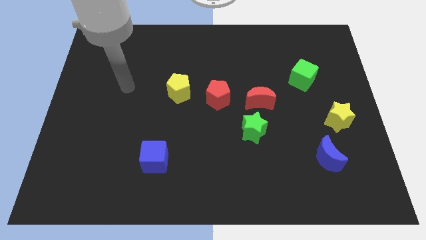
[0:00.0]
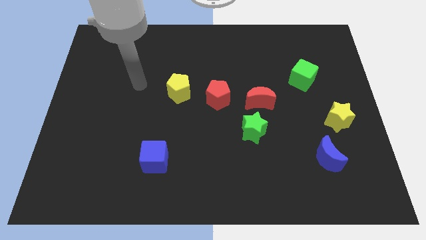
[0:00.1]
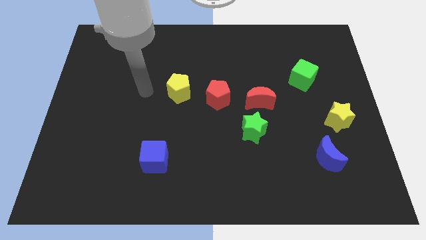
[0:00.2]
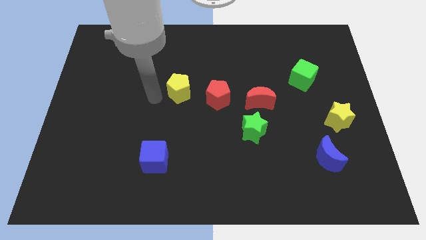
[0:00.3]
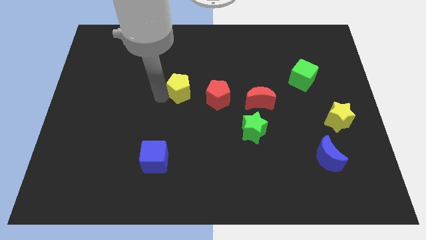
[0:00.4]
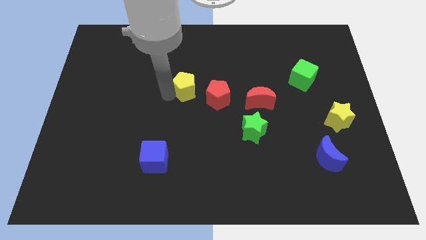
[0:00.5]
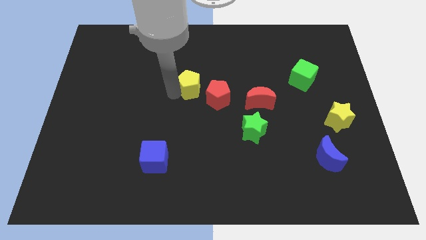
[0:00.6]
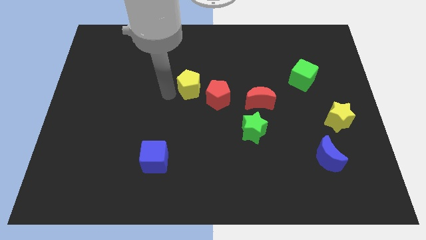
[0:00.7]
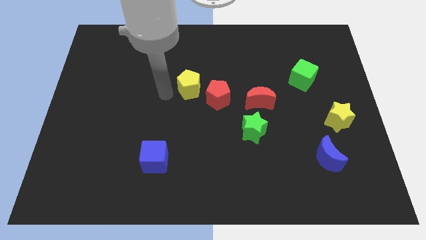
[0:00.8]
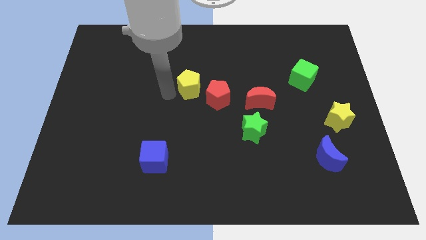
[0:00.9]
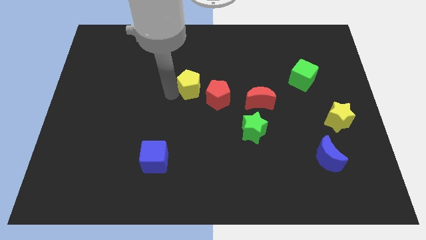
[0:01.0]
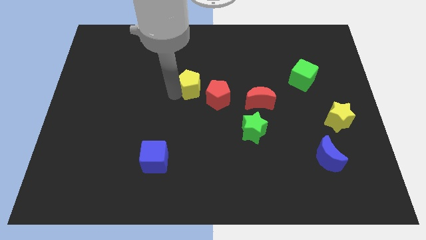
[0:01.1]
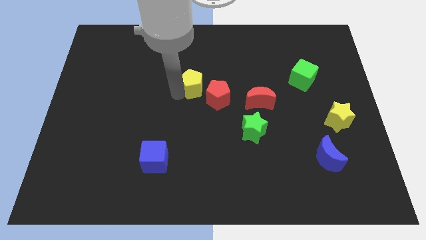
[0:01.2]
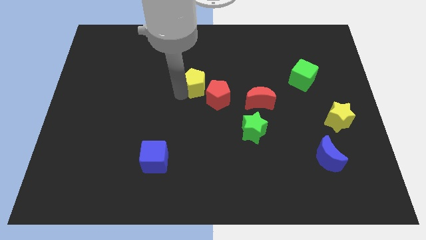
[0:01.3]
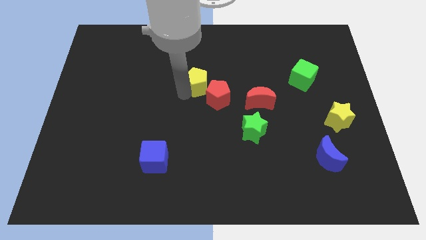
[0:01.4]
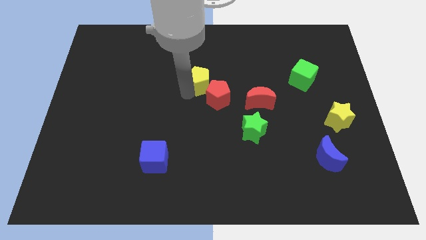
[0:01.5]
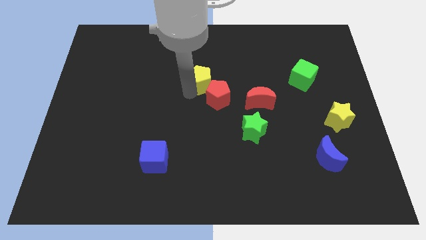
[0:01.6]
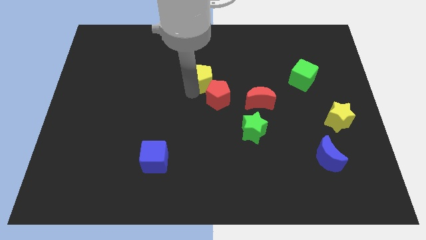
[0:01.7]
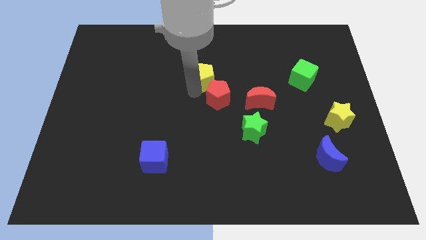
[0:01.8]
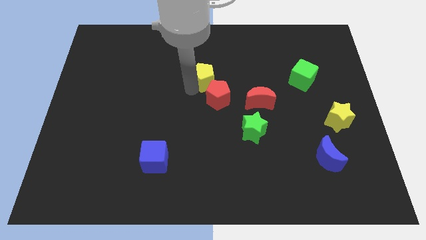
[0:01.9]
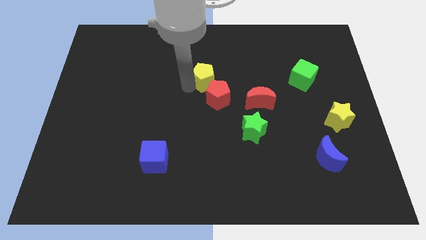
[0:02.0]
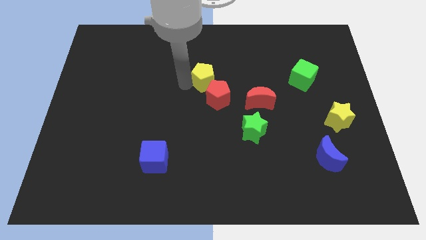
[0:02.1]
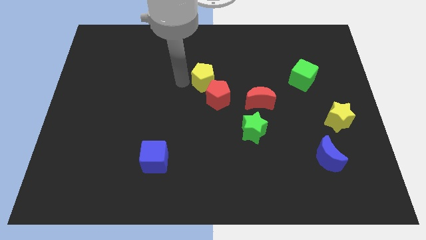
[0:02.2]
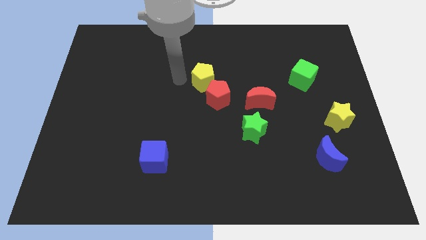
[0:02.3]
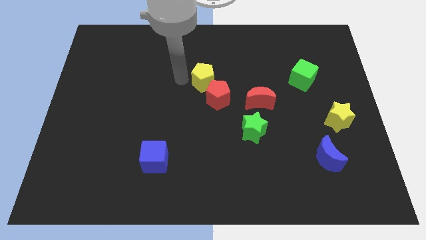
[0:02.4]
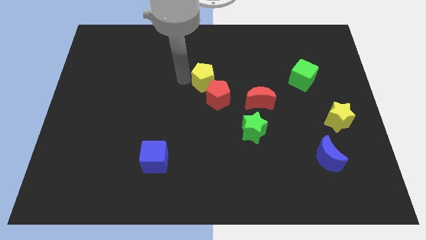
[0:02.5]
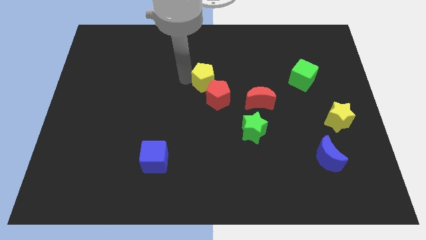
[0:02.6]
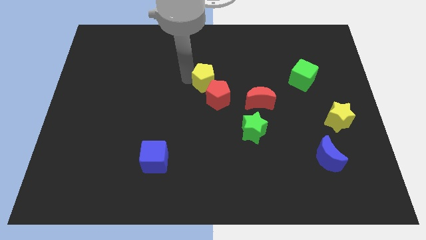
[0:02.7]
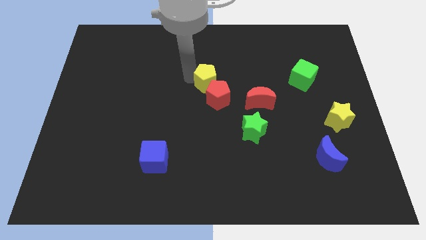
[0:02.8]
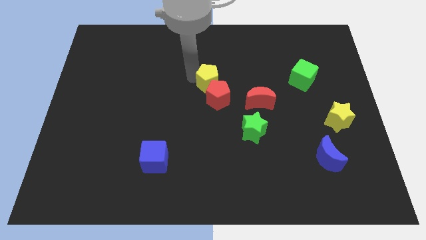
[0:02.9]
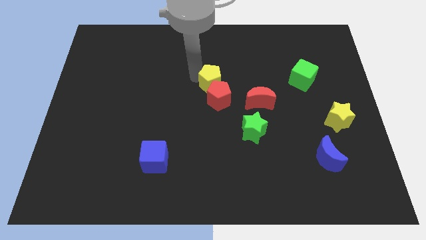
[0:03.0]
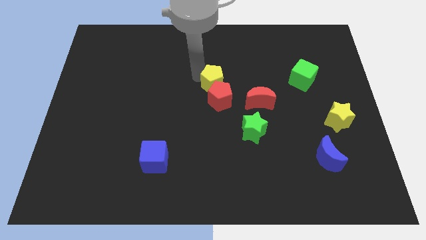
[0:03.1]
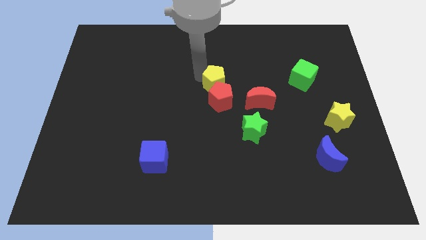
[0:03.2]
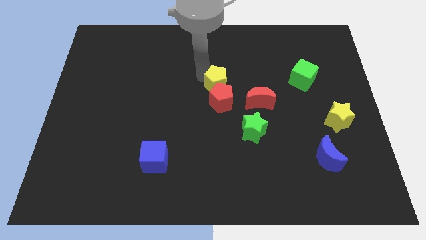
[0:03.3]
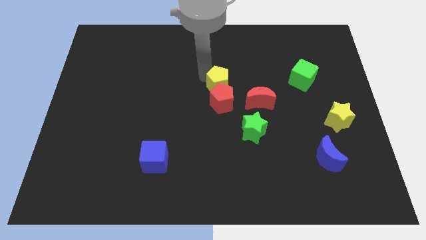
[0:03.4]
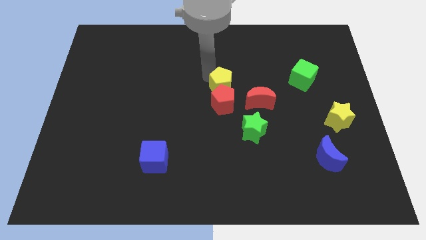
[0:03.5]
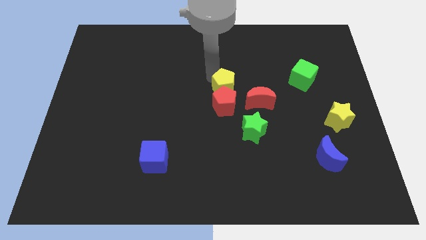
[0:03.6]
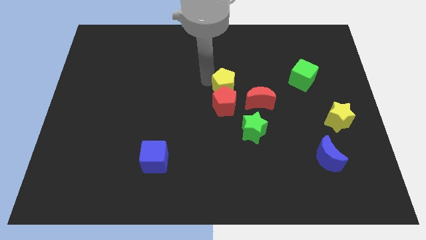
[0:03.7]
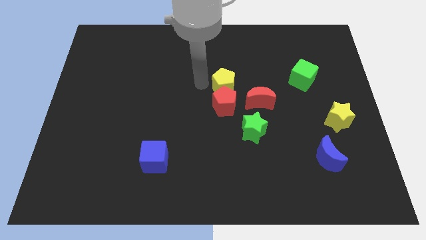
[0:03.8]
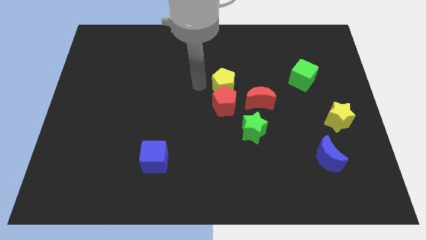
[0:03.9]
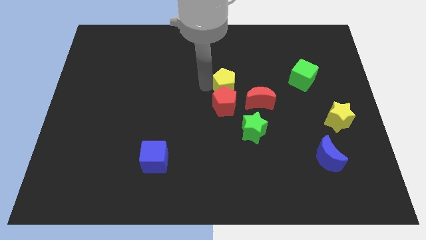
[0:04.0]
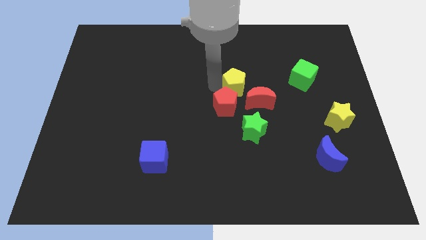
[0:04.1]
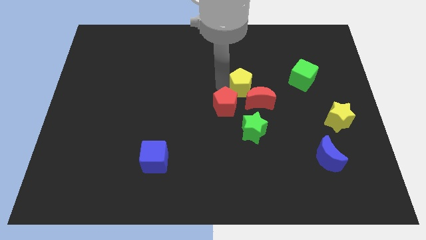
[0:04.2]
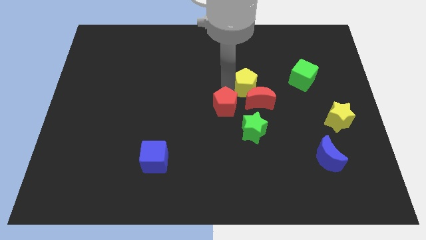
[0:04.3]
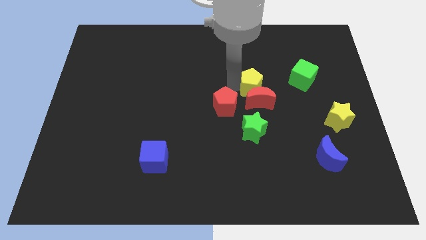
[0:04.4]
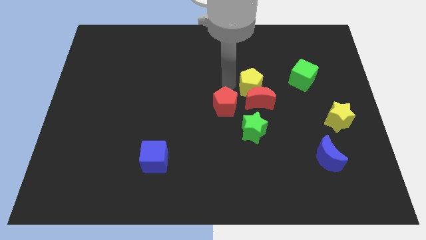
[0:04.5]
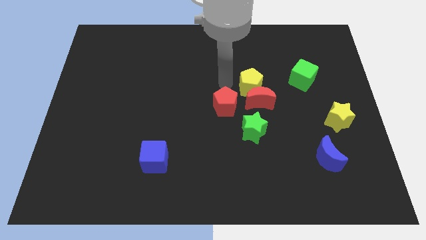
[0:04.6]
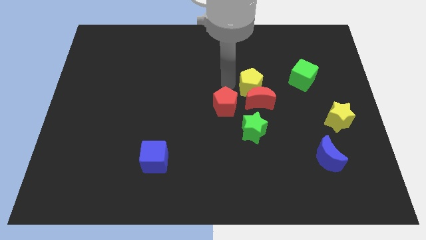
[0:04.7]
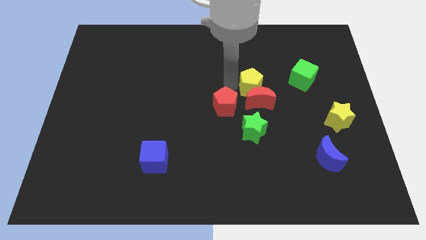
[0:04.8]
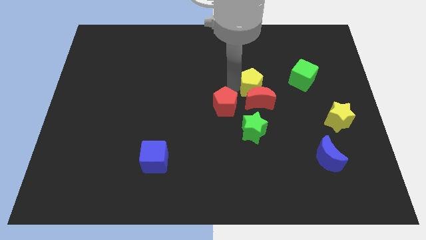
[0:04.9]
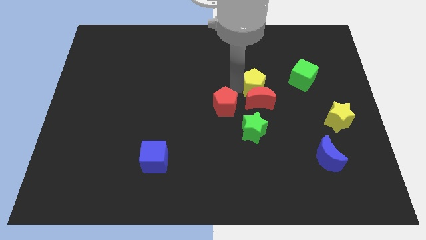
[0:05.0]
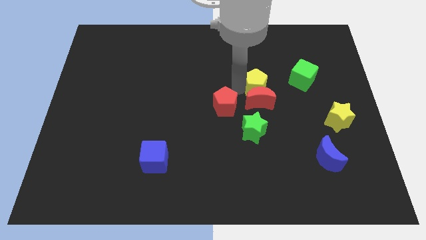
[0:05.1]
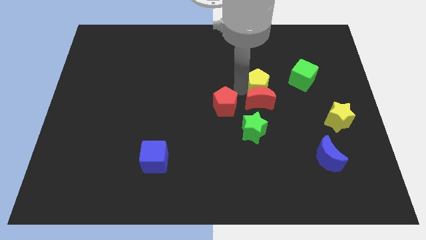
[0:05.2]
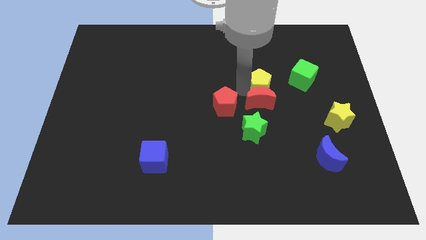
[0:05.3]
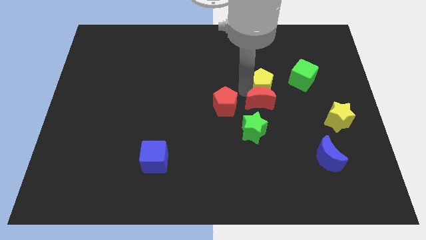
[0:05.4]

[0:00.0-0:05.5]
slide the yellow pentagon to the right

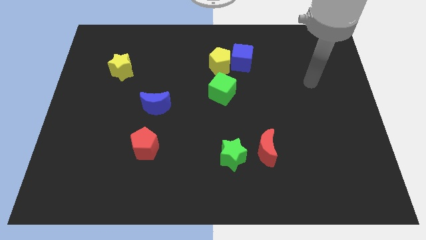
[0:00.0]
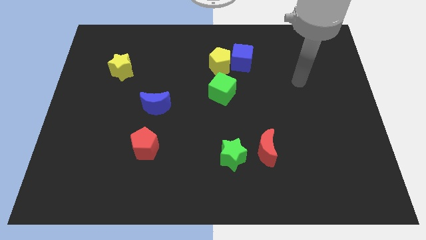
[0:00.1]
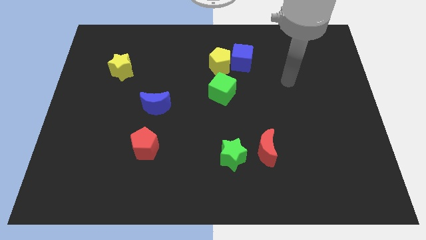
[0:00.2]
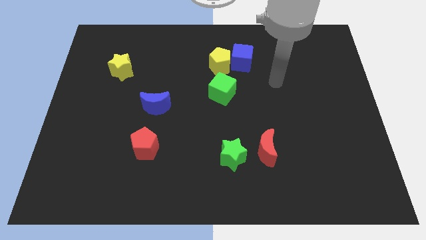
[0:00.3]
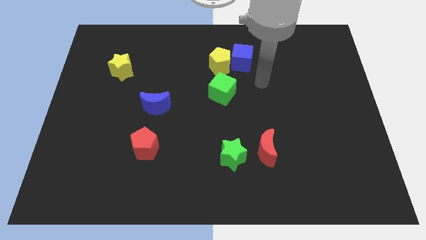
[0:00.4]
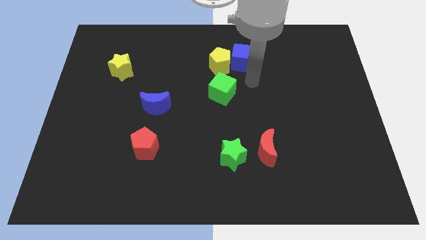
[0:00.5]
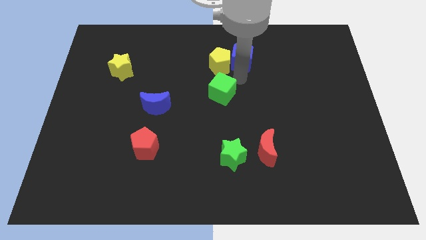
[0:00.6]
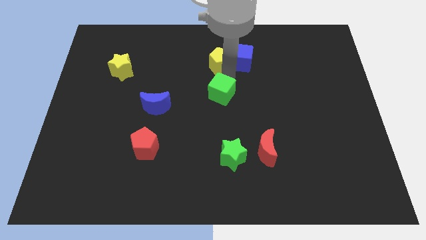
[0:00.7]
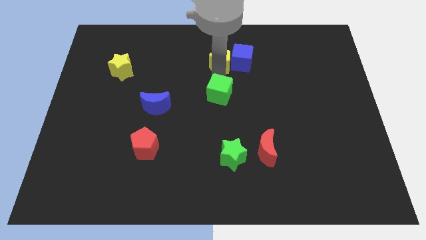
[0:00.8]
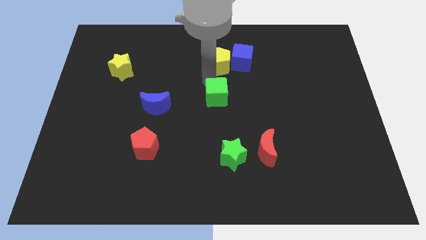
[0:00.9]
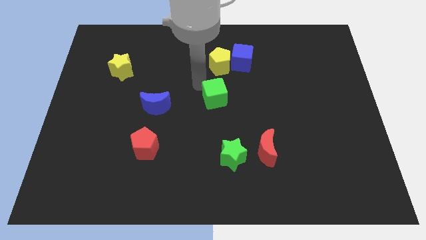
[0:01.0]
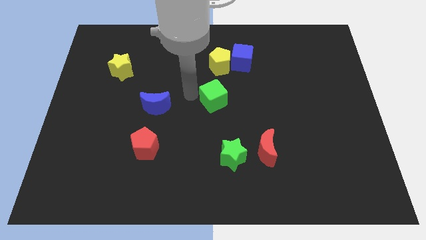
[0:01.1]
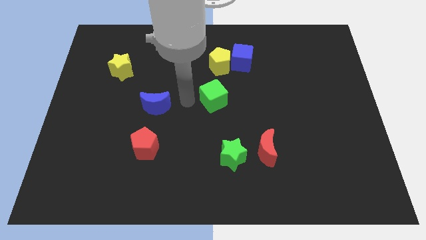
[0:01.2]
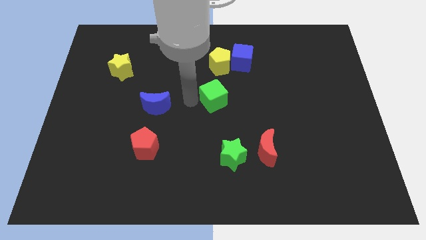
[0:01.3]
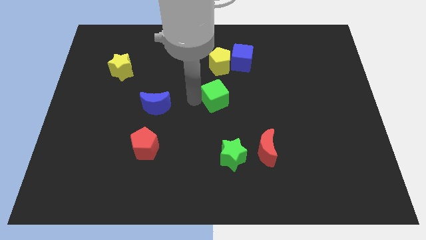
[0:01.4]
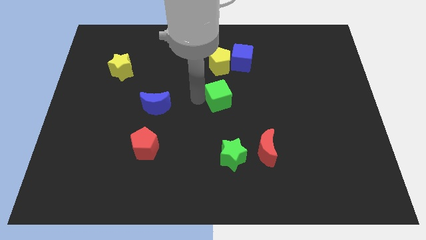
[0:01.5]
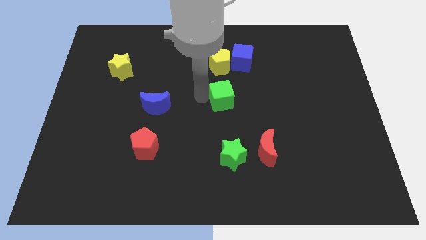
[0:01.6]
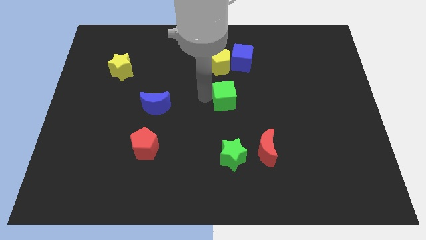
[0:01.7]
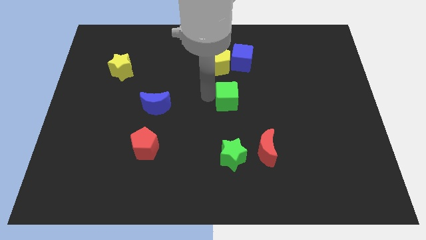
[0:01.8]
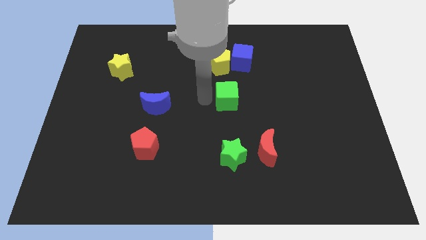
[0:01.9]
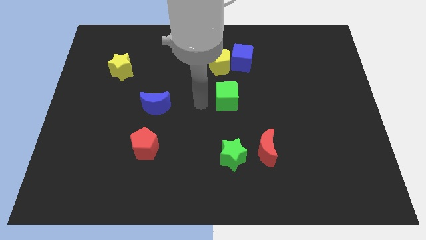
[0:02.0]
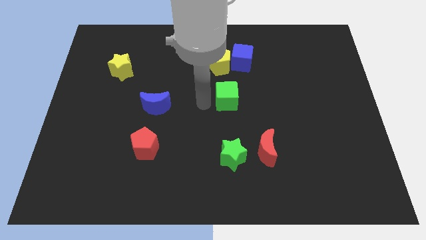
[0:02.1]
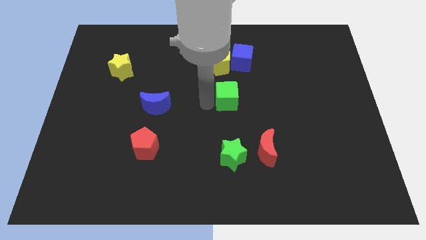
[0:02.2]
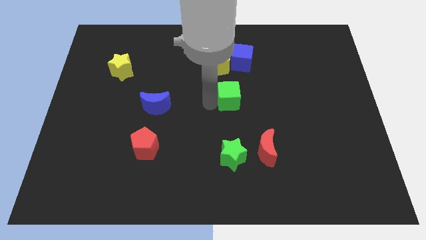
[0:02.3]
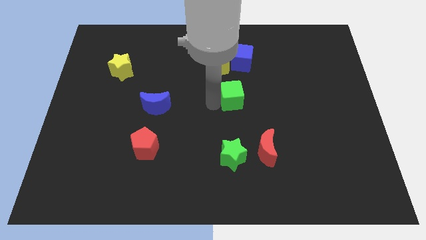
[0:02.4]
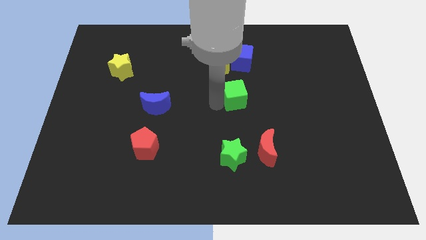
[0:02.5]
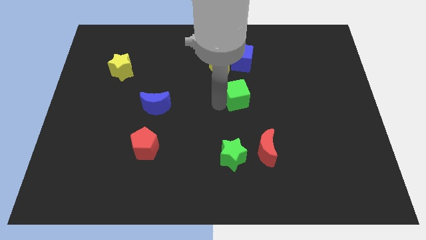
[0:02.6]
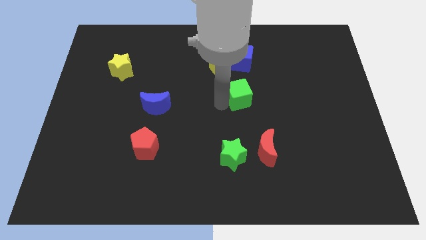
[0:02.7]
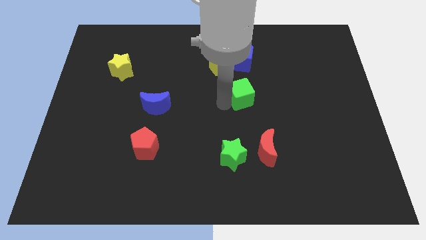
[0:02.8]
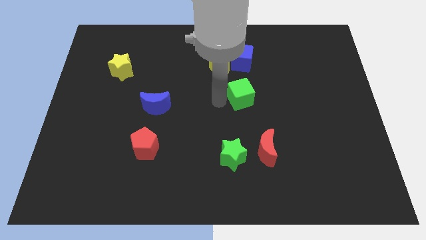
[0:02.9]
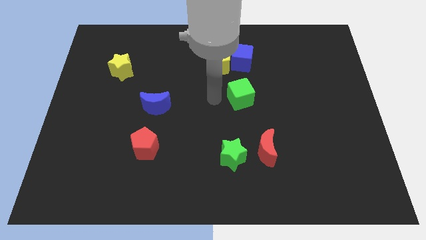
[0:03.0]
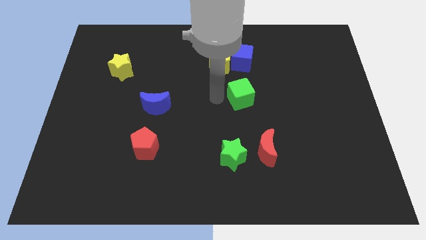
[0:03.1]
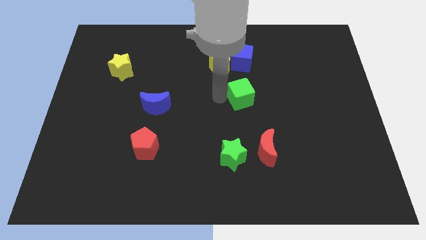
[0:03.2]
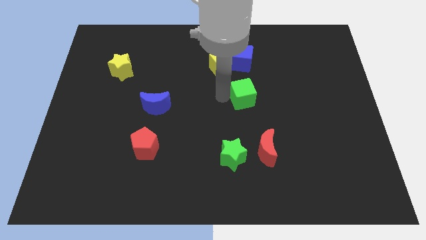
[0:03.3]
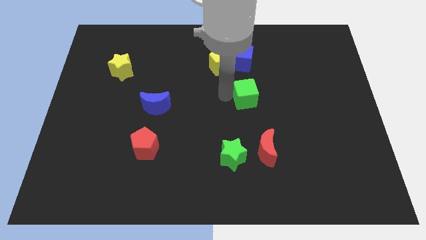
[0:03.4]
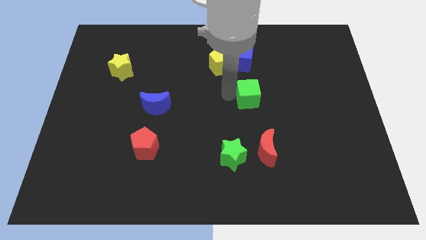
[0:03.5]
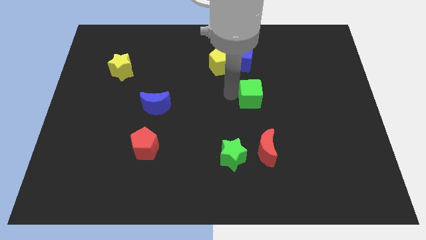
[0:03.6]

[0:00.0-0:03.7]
push the green cube right a bit
